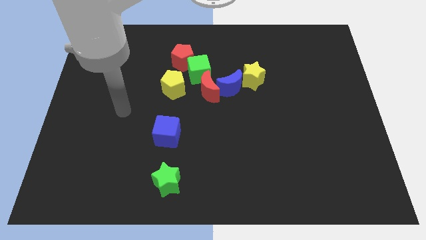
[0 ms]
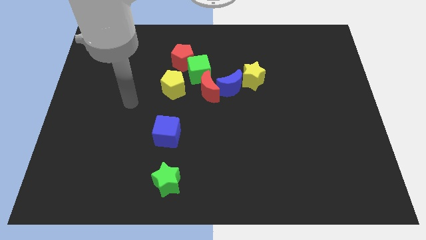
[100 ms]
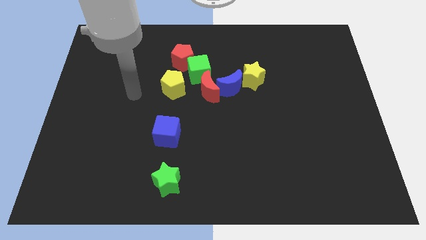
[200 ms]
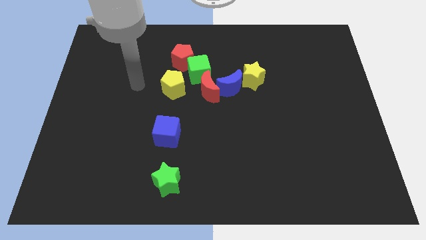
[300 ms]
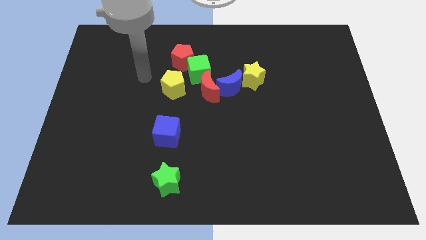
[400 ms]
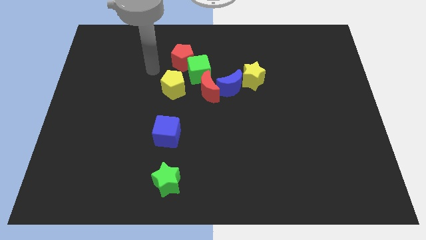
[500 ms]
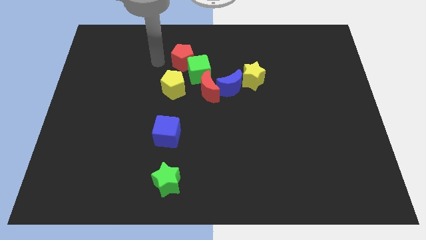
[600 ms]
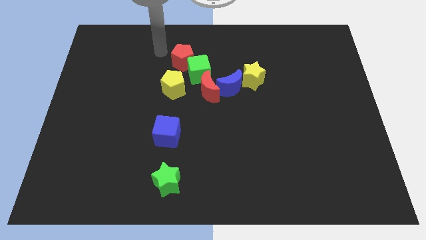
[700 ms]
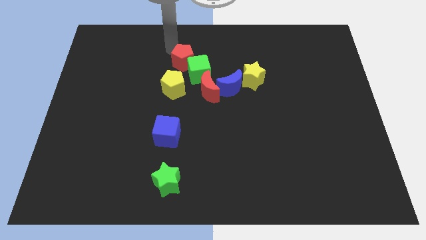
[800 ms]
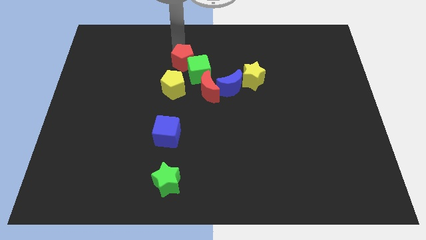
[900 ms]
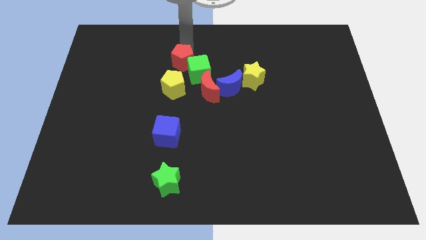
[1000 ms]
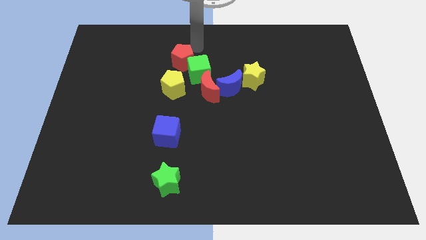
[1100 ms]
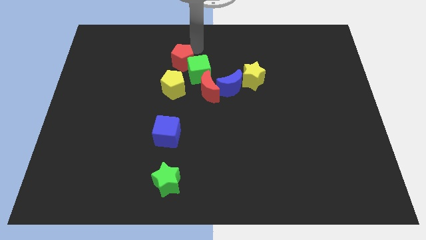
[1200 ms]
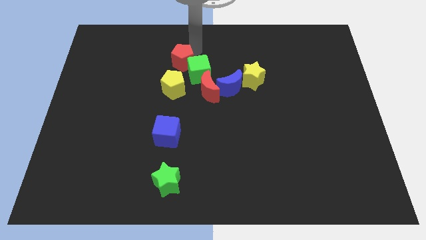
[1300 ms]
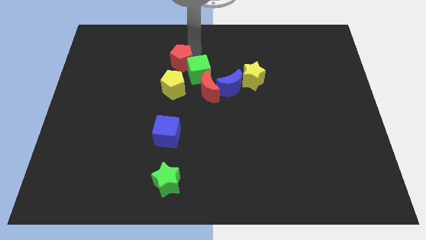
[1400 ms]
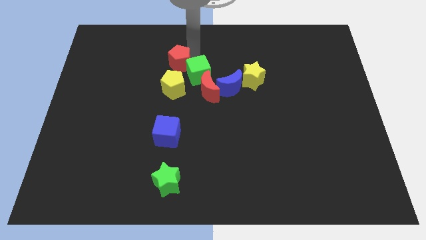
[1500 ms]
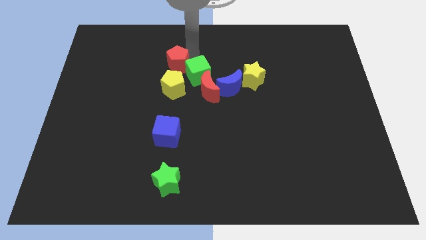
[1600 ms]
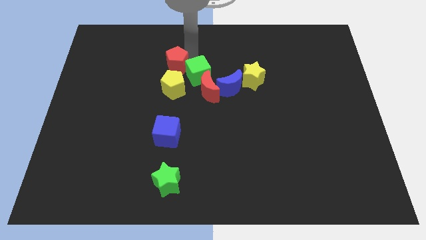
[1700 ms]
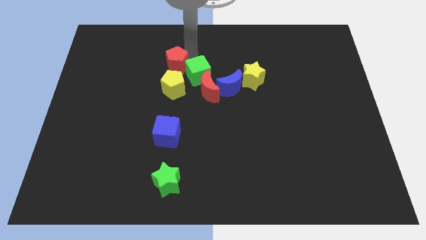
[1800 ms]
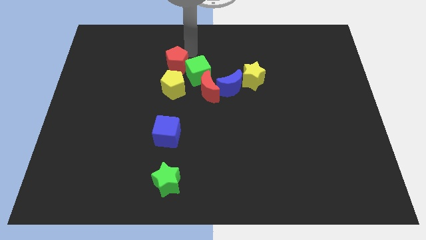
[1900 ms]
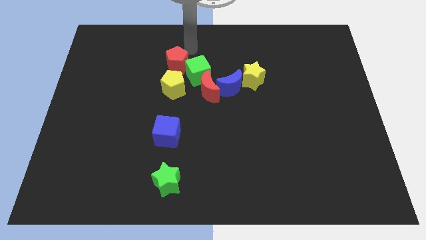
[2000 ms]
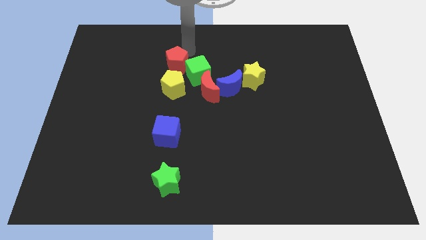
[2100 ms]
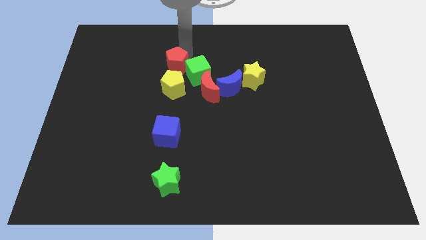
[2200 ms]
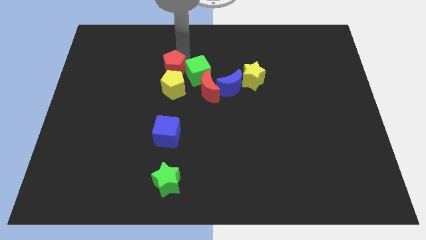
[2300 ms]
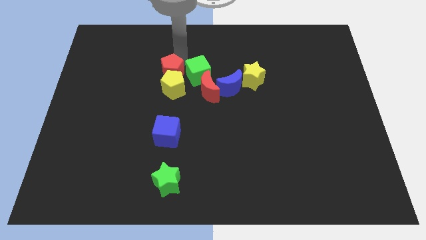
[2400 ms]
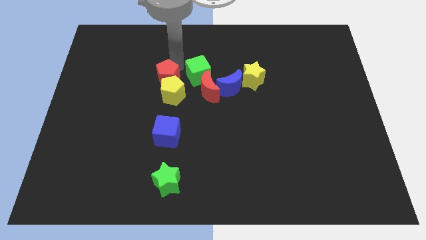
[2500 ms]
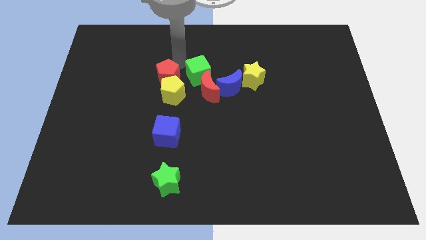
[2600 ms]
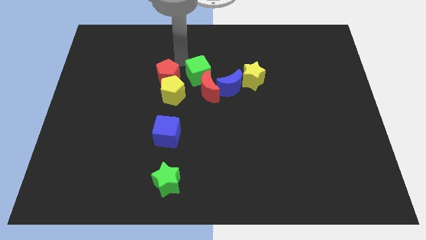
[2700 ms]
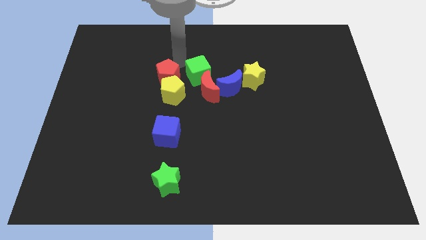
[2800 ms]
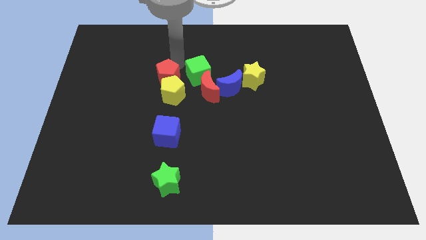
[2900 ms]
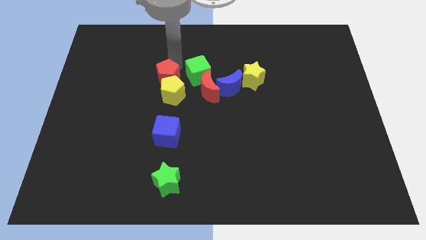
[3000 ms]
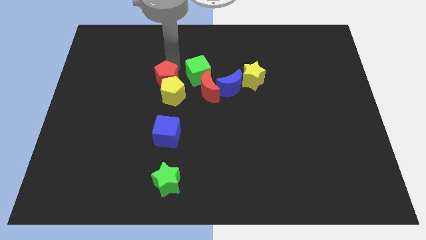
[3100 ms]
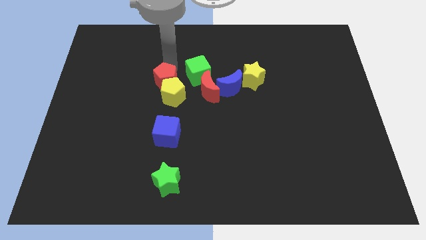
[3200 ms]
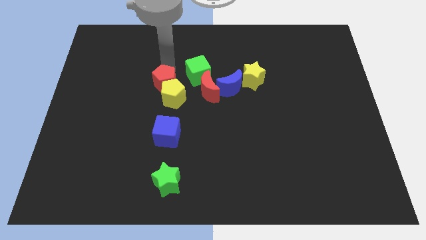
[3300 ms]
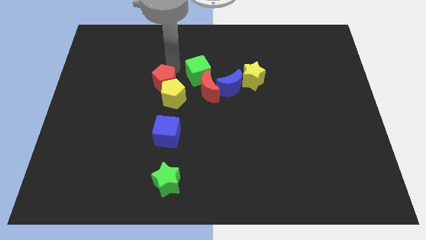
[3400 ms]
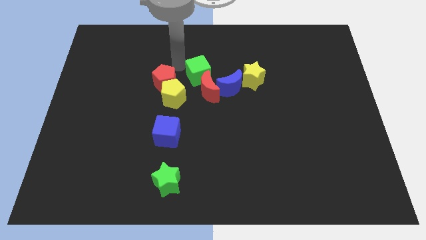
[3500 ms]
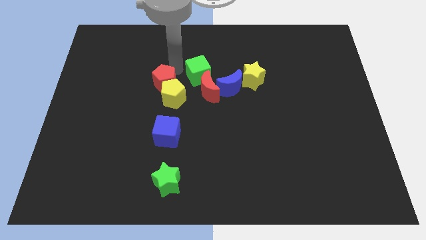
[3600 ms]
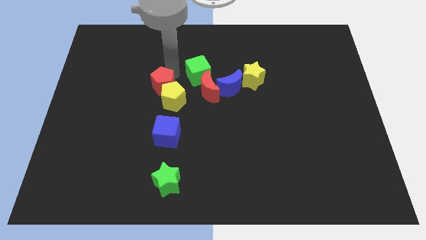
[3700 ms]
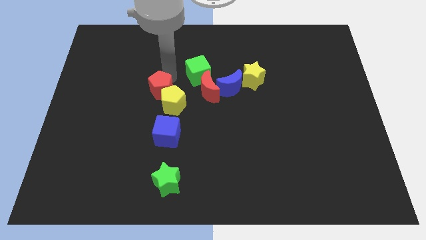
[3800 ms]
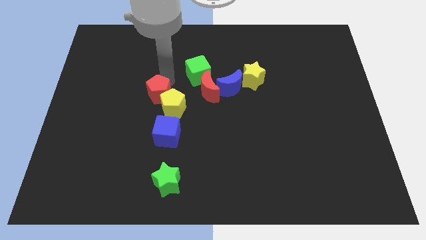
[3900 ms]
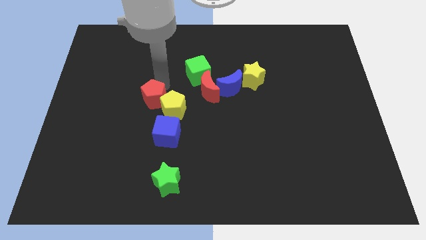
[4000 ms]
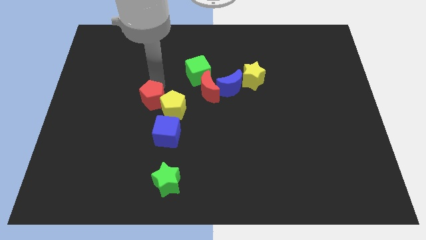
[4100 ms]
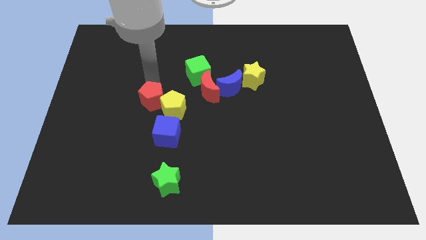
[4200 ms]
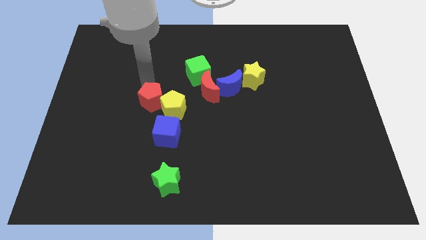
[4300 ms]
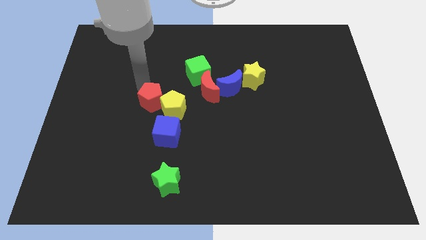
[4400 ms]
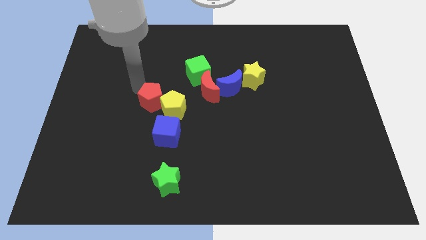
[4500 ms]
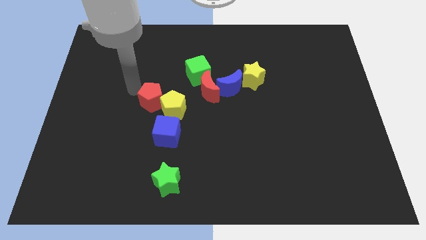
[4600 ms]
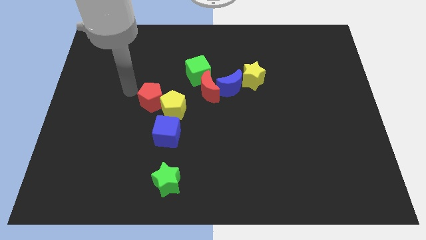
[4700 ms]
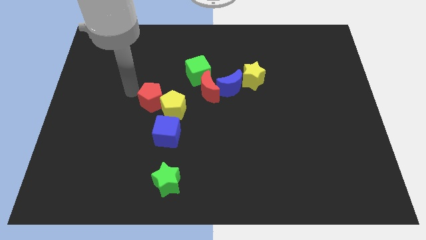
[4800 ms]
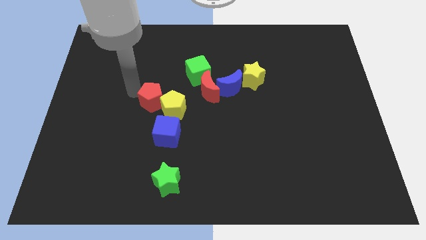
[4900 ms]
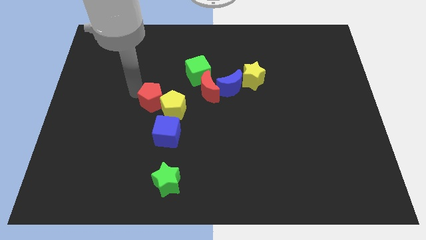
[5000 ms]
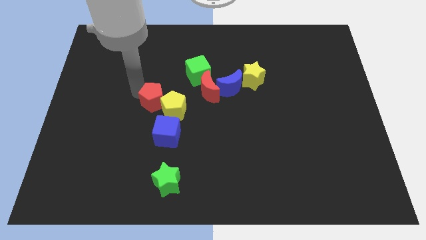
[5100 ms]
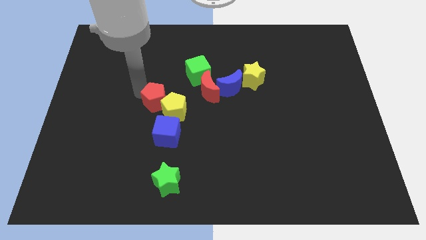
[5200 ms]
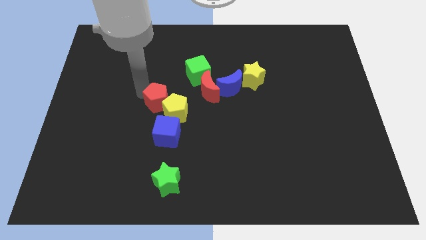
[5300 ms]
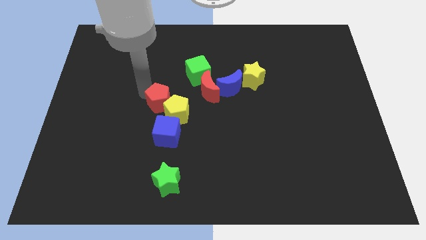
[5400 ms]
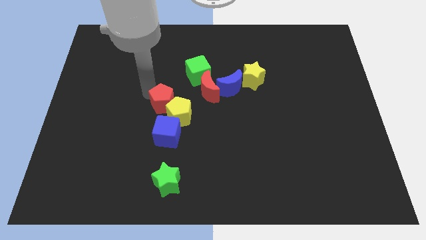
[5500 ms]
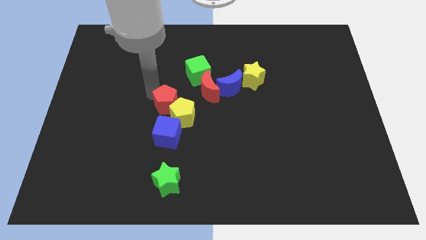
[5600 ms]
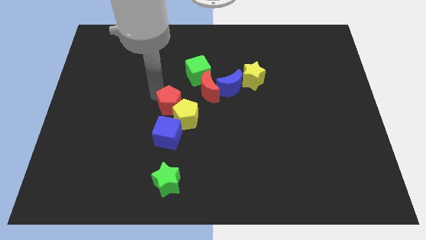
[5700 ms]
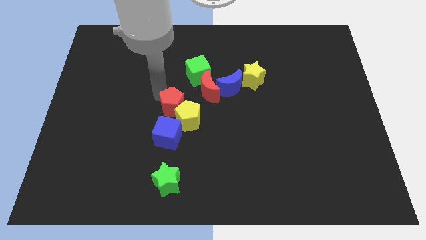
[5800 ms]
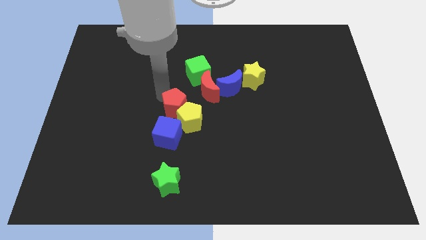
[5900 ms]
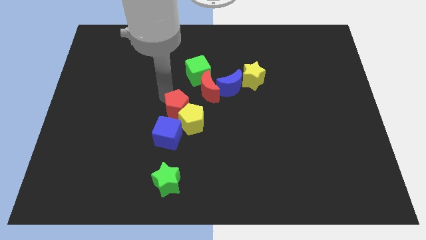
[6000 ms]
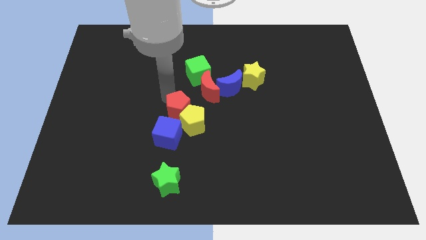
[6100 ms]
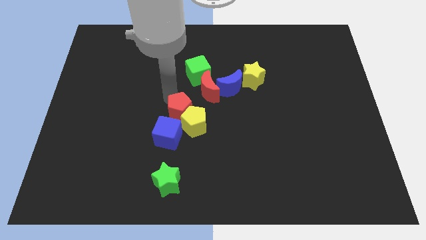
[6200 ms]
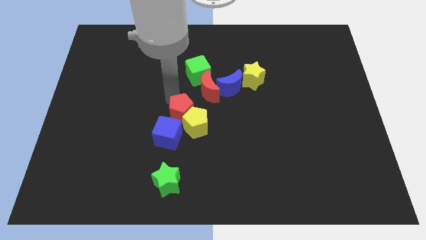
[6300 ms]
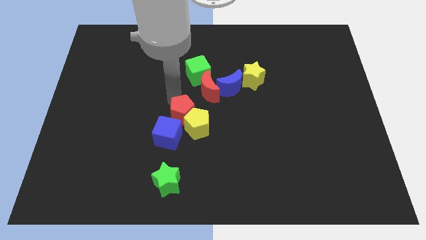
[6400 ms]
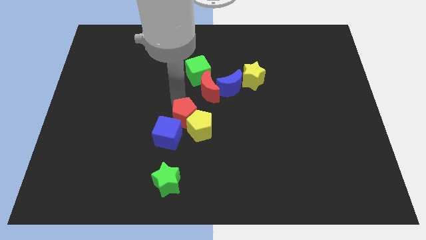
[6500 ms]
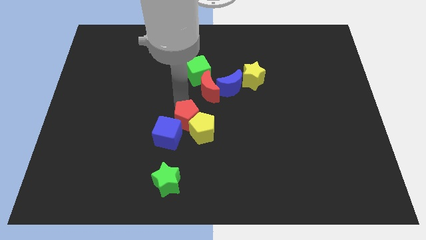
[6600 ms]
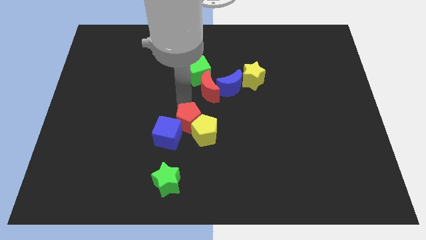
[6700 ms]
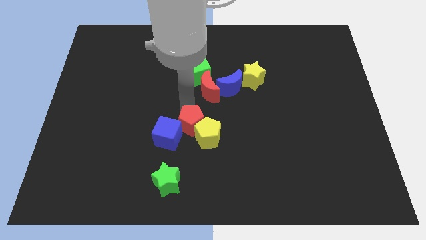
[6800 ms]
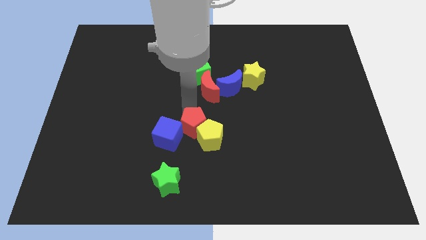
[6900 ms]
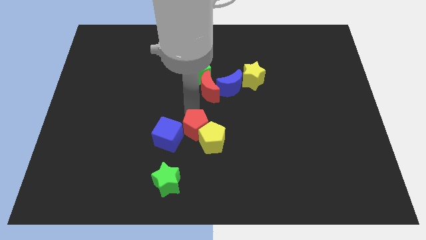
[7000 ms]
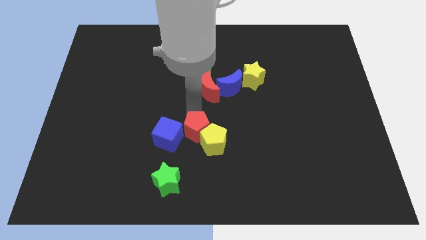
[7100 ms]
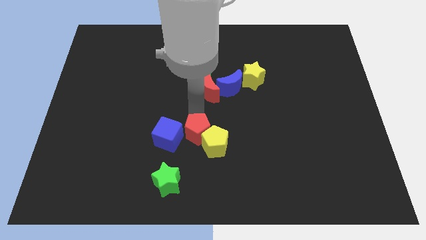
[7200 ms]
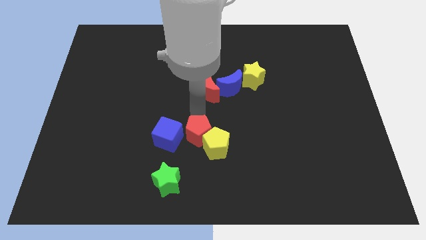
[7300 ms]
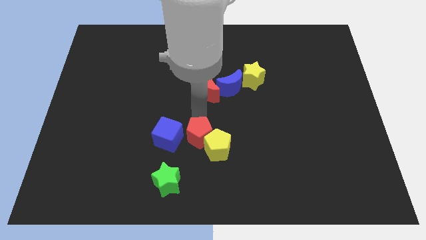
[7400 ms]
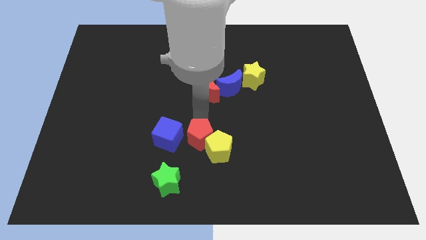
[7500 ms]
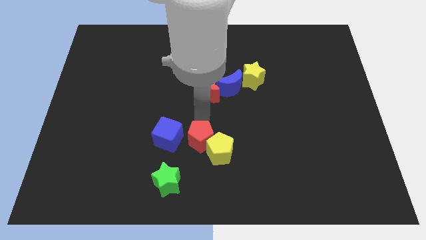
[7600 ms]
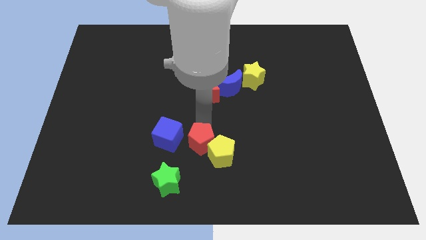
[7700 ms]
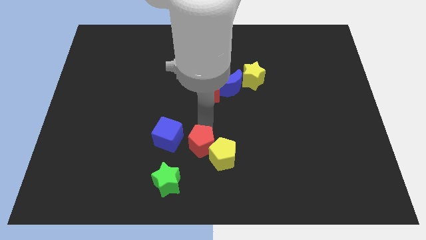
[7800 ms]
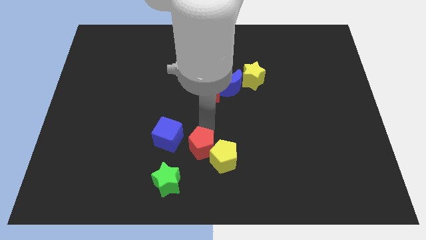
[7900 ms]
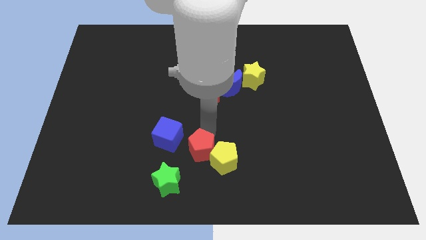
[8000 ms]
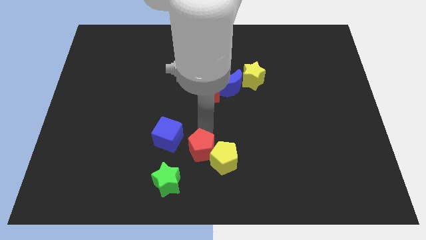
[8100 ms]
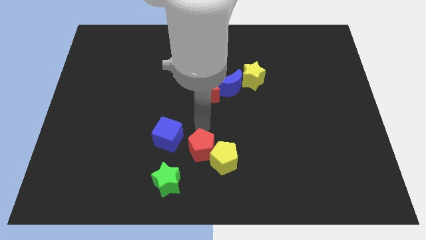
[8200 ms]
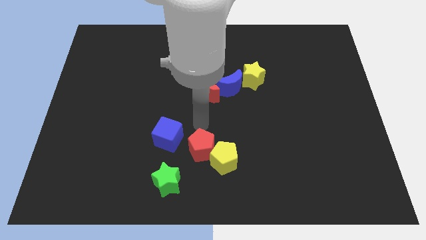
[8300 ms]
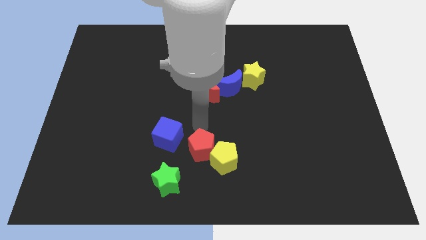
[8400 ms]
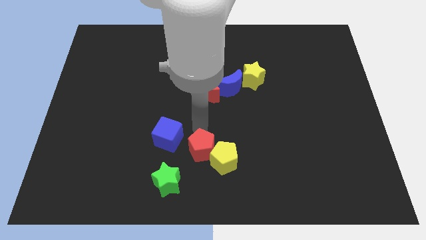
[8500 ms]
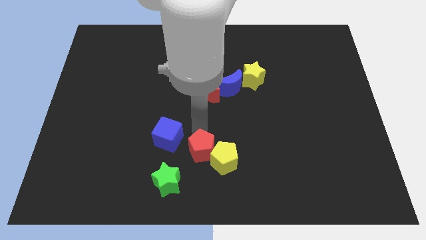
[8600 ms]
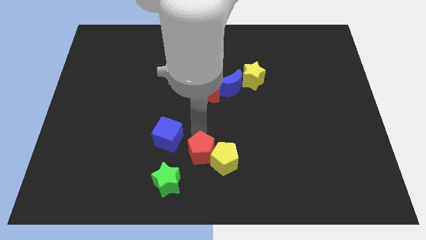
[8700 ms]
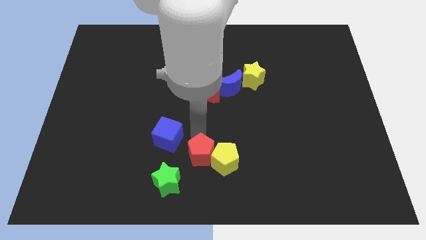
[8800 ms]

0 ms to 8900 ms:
push the red pentagon to the bottom side
